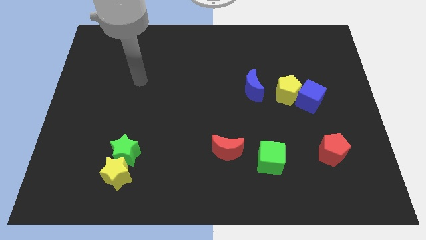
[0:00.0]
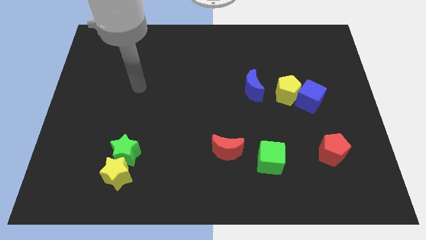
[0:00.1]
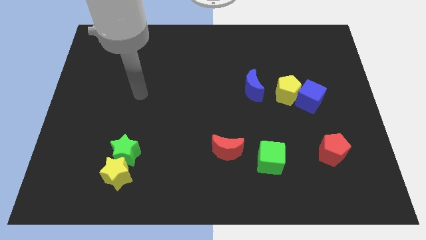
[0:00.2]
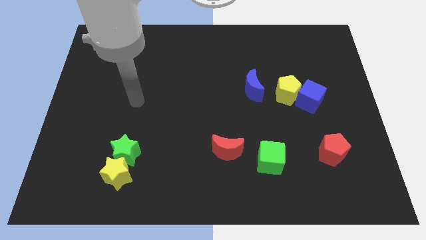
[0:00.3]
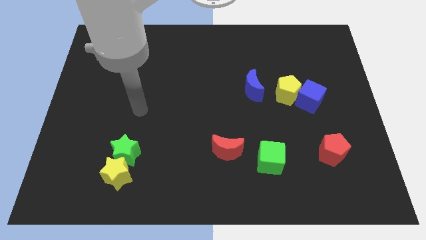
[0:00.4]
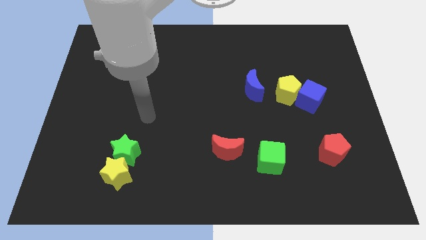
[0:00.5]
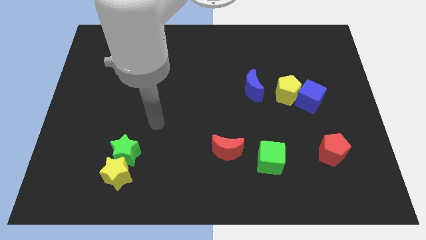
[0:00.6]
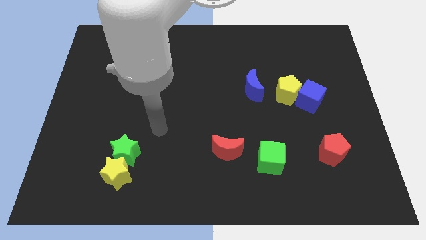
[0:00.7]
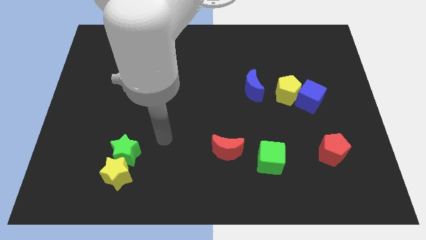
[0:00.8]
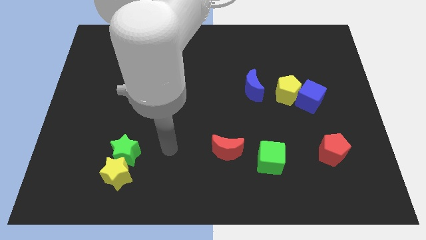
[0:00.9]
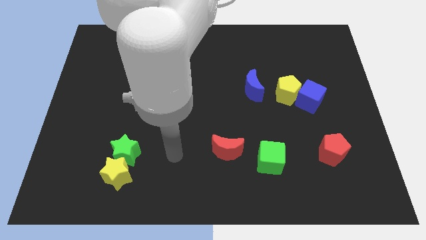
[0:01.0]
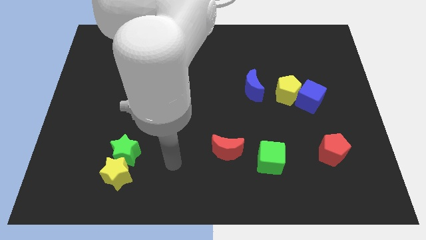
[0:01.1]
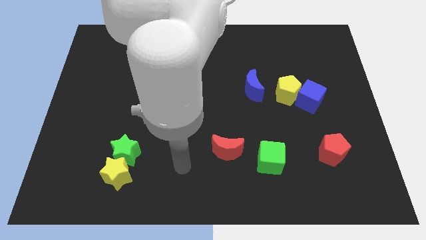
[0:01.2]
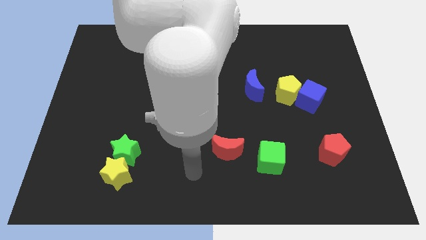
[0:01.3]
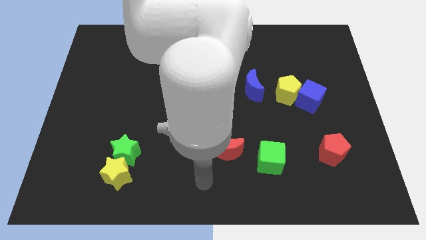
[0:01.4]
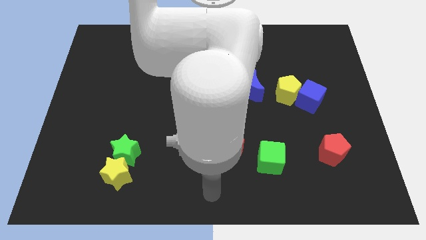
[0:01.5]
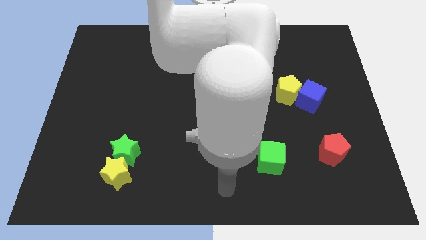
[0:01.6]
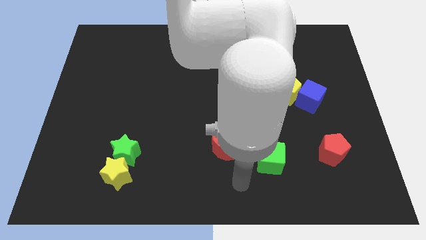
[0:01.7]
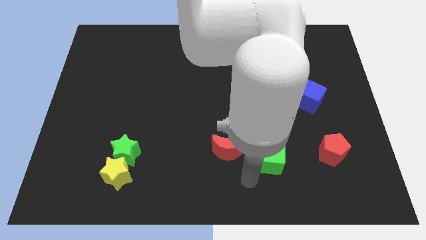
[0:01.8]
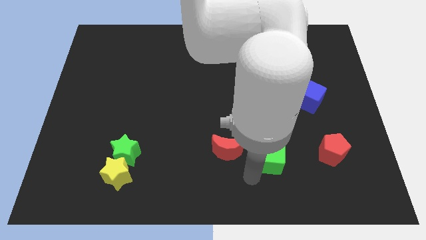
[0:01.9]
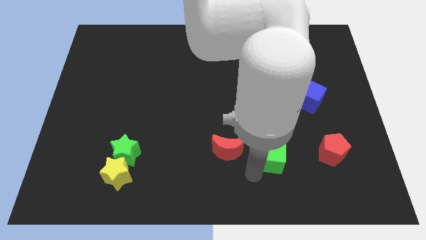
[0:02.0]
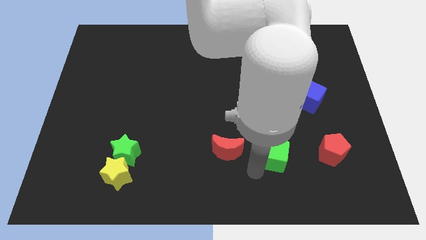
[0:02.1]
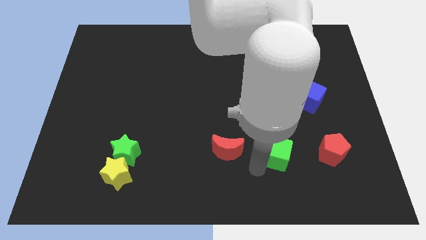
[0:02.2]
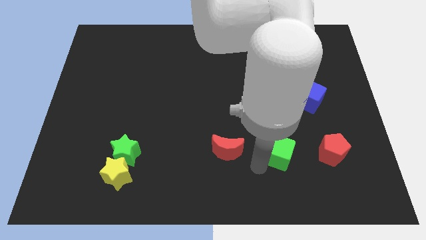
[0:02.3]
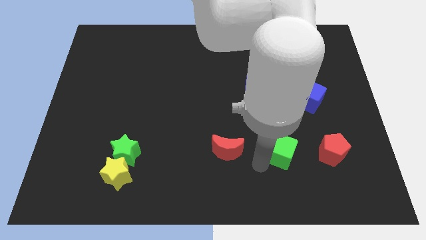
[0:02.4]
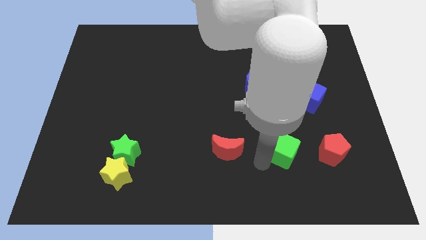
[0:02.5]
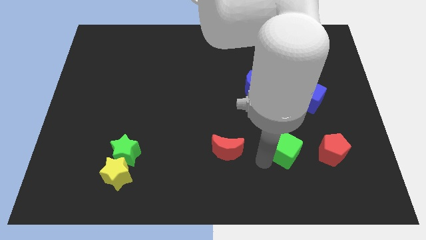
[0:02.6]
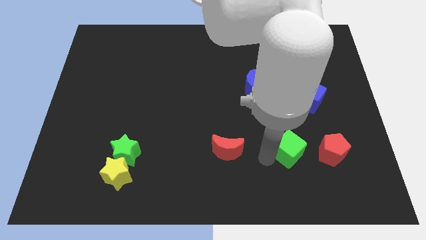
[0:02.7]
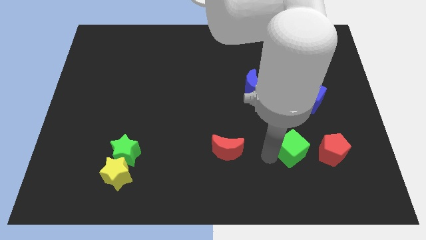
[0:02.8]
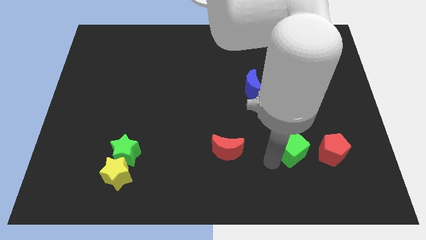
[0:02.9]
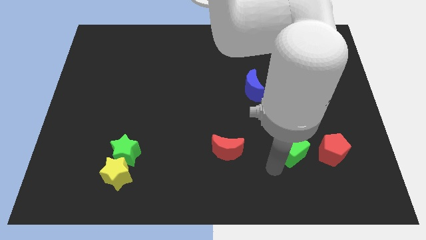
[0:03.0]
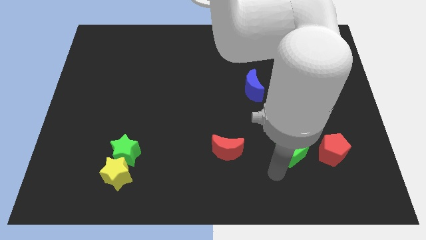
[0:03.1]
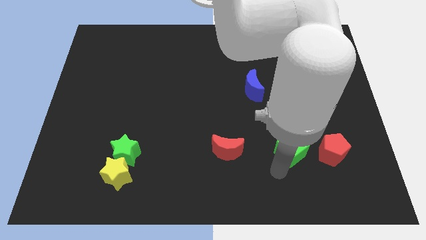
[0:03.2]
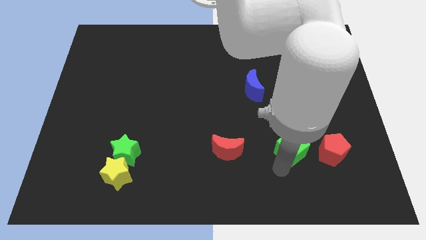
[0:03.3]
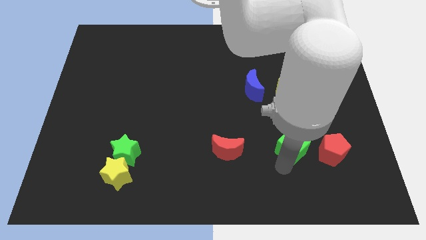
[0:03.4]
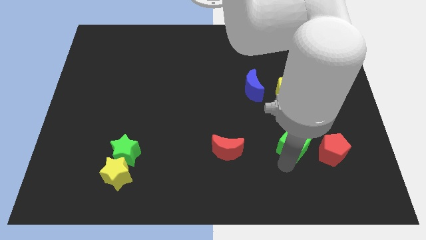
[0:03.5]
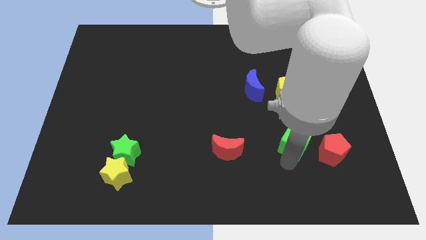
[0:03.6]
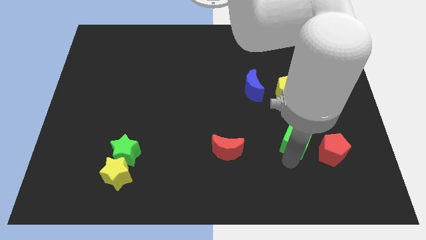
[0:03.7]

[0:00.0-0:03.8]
move the green cube a little bit up and then to the right

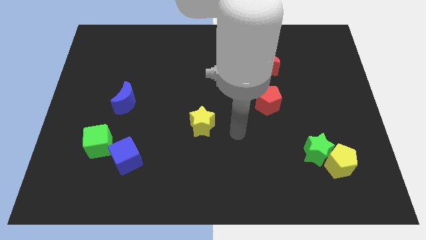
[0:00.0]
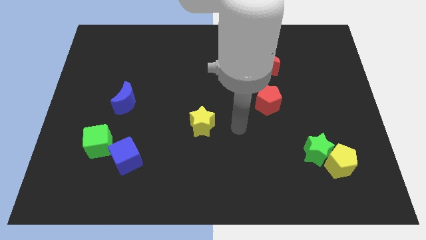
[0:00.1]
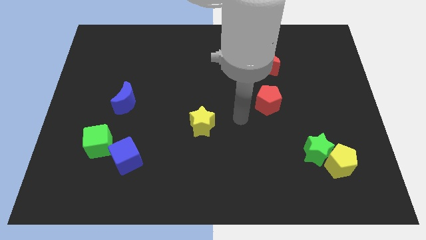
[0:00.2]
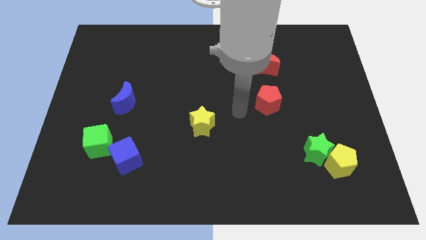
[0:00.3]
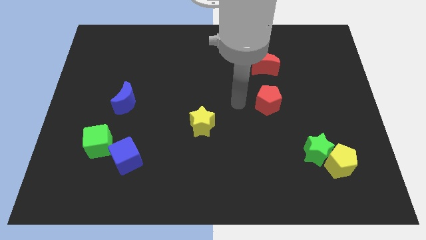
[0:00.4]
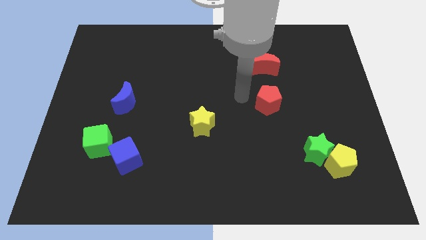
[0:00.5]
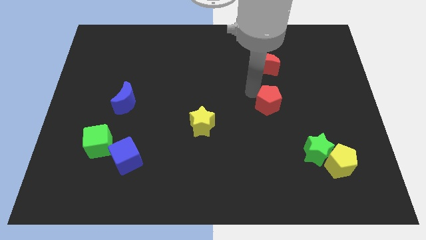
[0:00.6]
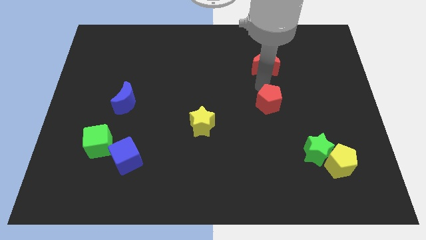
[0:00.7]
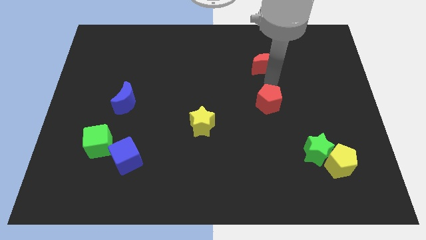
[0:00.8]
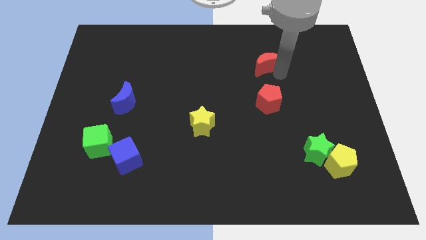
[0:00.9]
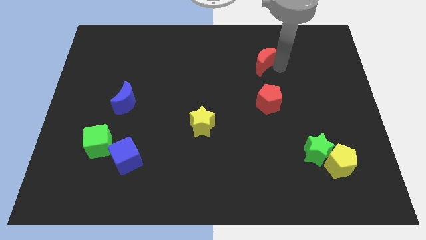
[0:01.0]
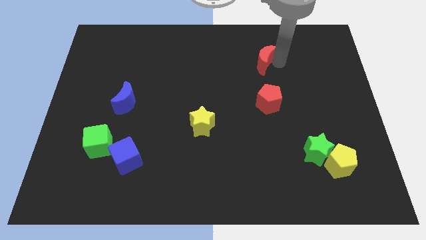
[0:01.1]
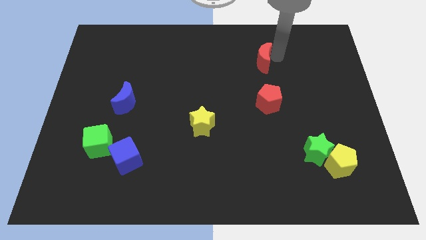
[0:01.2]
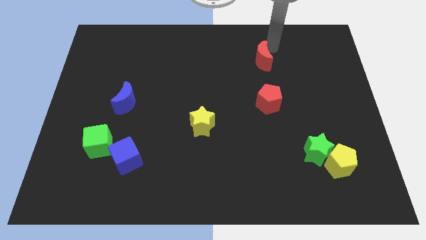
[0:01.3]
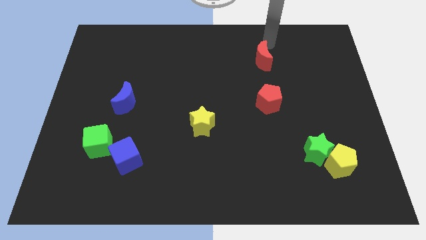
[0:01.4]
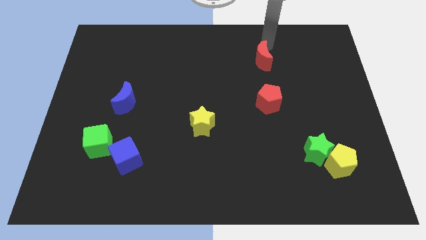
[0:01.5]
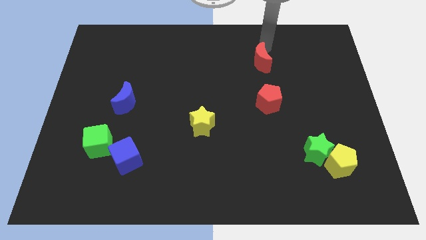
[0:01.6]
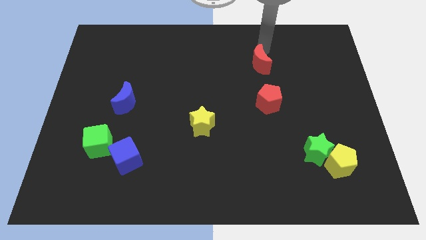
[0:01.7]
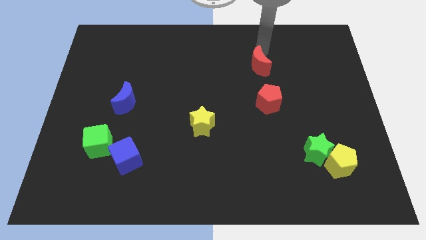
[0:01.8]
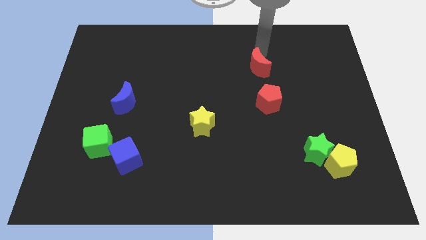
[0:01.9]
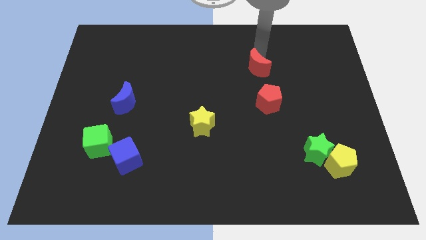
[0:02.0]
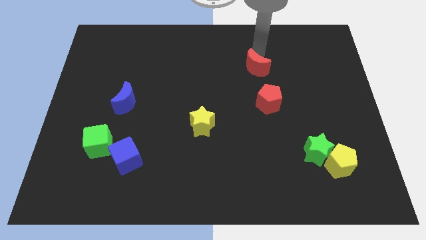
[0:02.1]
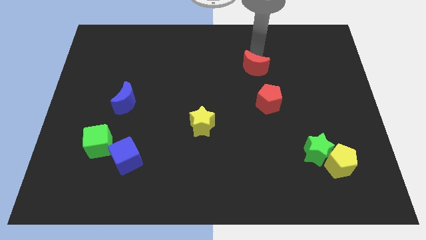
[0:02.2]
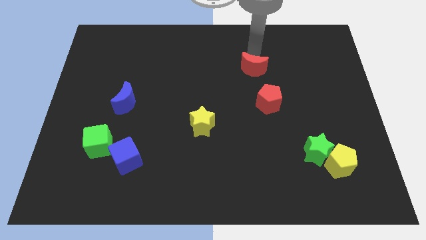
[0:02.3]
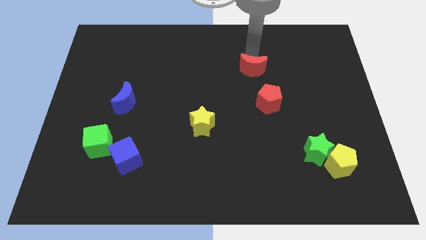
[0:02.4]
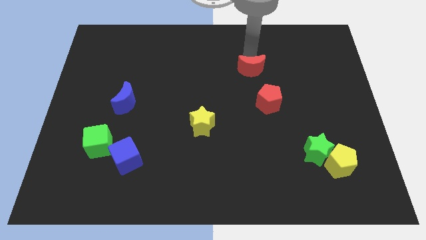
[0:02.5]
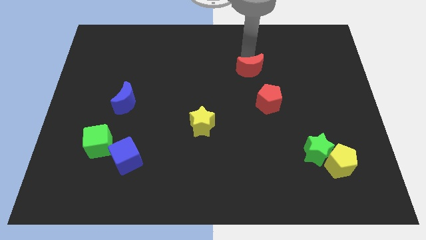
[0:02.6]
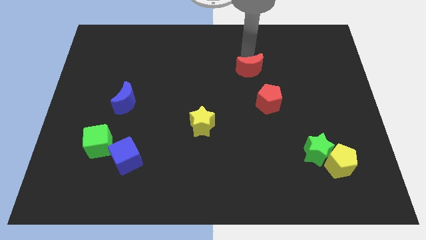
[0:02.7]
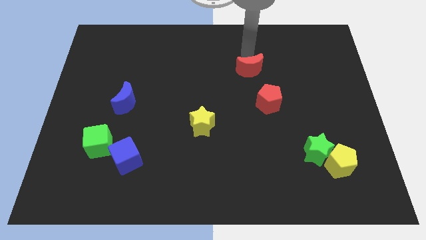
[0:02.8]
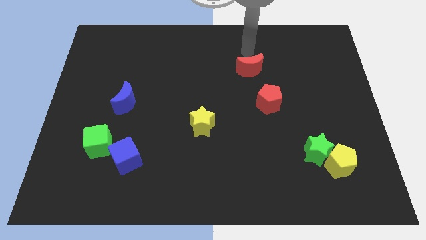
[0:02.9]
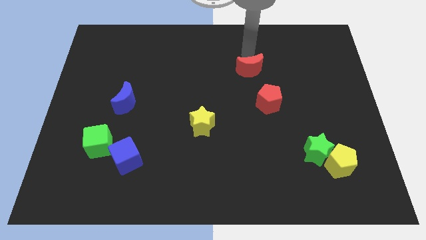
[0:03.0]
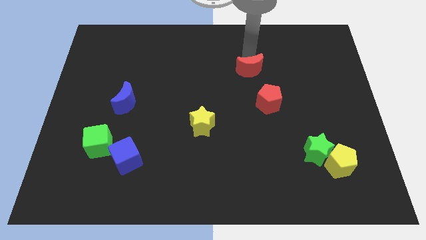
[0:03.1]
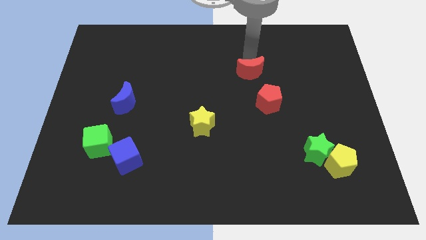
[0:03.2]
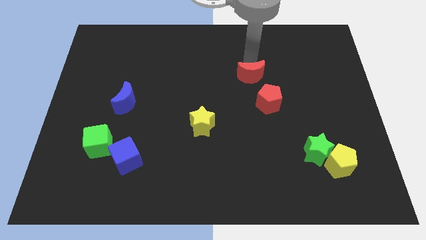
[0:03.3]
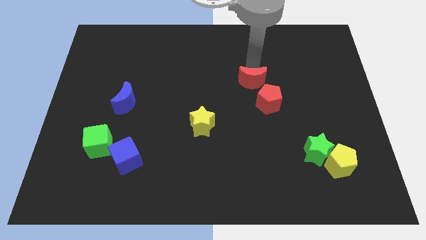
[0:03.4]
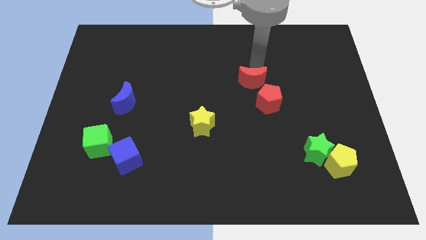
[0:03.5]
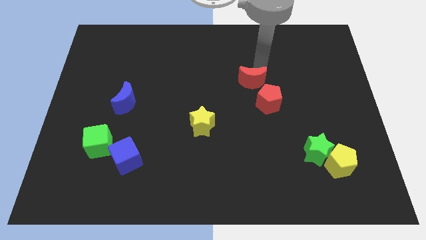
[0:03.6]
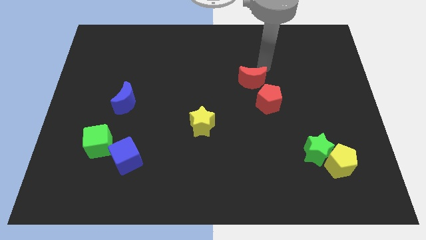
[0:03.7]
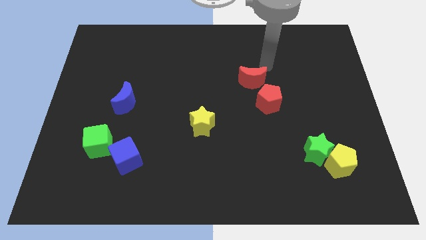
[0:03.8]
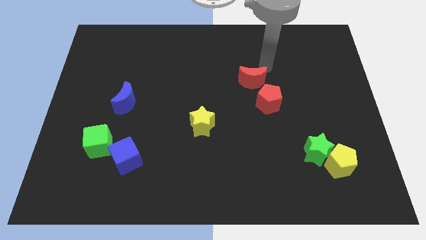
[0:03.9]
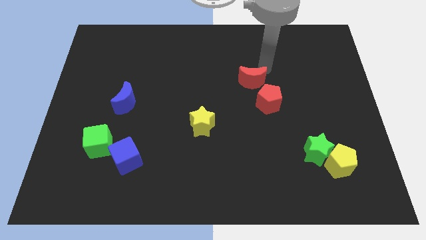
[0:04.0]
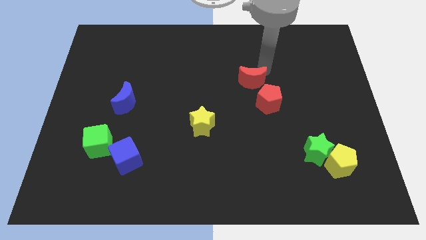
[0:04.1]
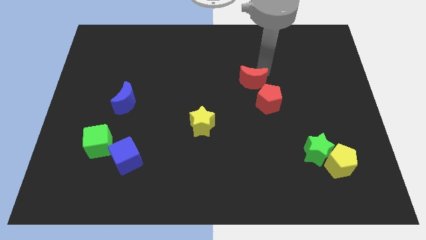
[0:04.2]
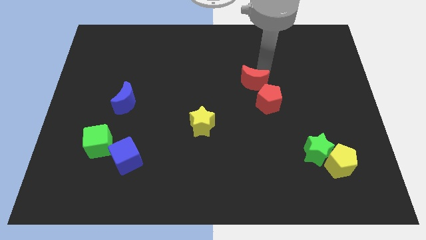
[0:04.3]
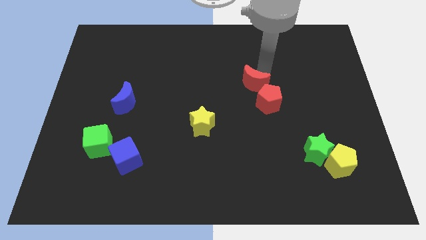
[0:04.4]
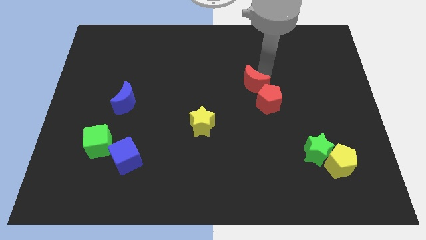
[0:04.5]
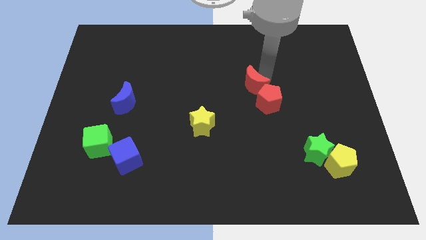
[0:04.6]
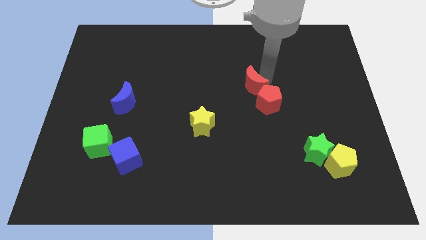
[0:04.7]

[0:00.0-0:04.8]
push the red moon downwards and to the left diagonally a little
